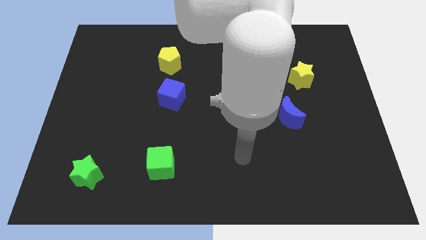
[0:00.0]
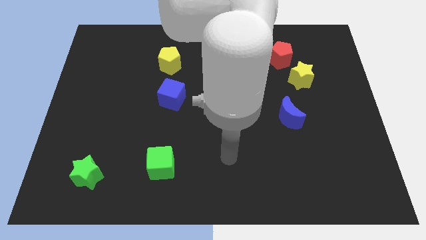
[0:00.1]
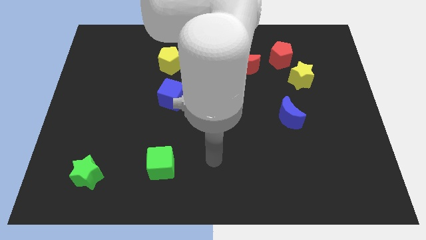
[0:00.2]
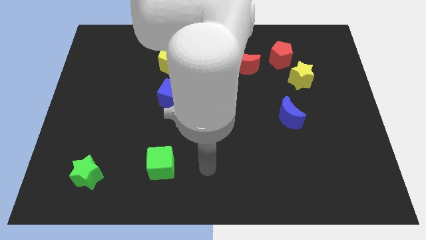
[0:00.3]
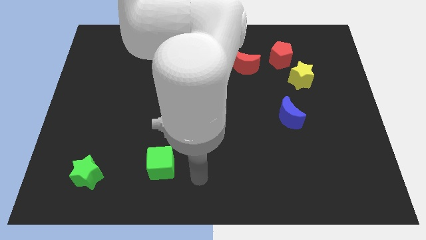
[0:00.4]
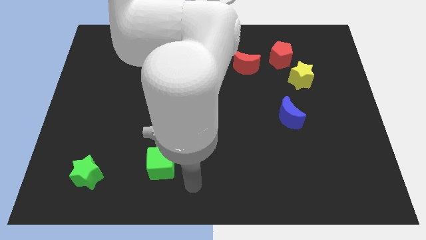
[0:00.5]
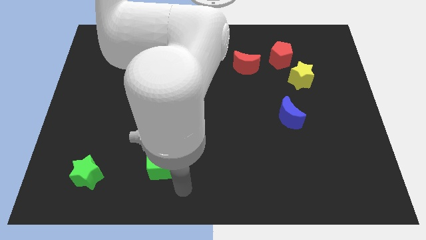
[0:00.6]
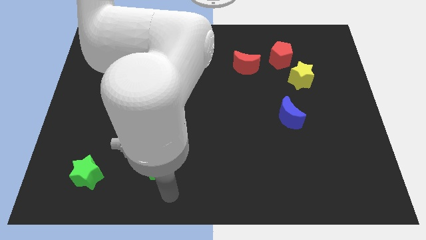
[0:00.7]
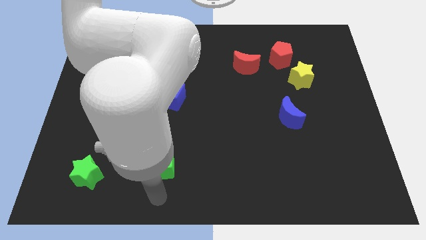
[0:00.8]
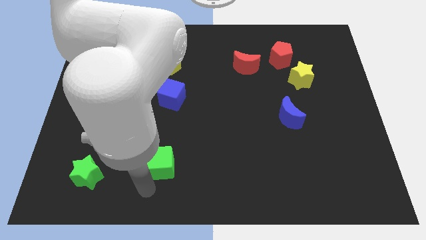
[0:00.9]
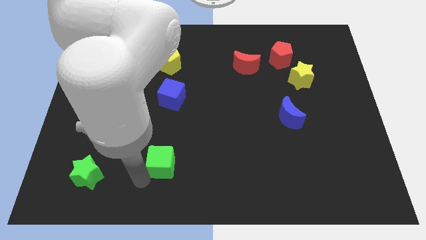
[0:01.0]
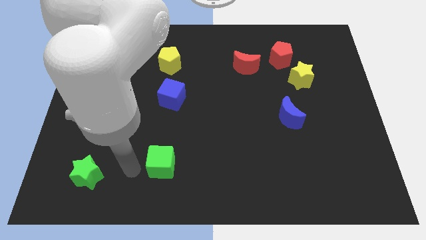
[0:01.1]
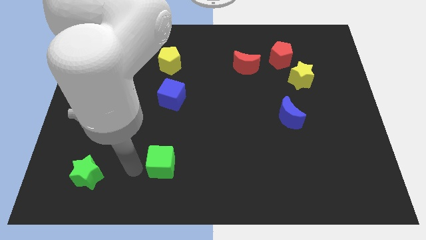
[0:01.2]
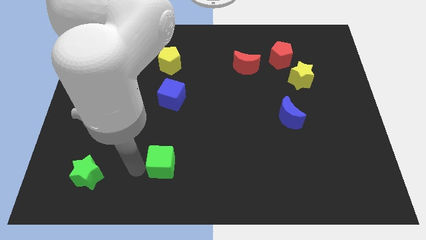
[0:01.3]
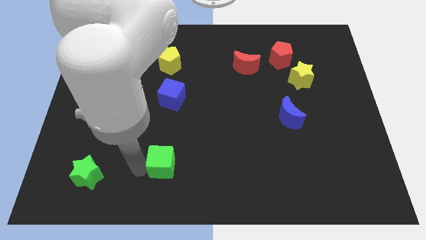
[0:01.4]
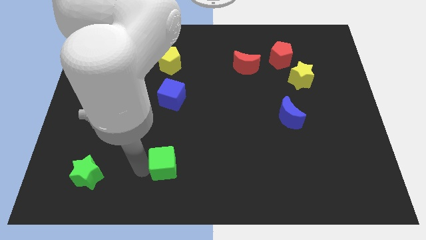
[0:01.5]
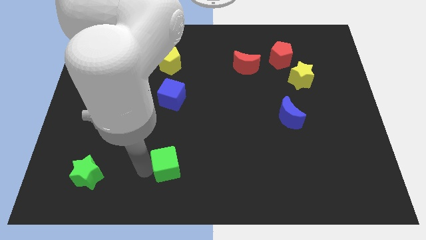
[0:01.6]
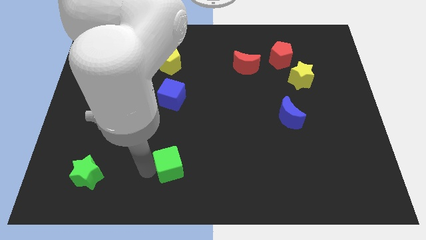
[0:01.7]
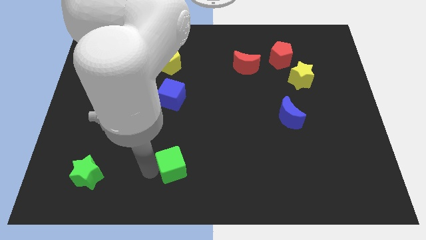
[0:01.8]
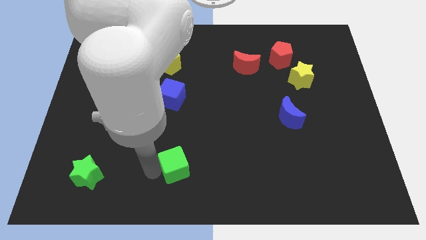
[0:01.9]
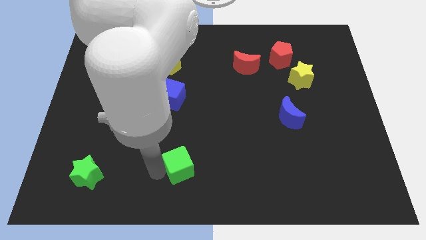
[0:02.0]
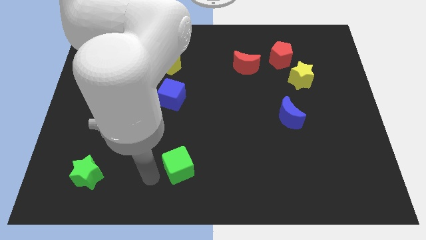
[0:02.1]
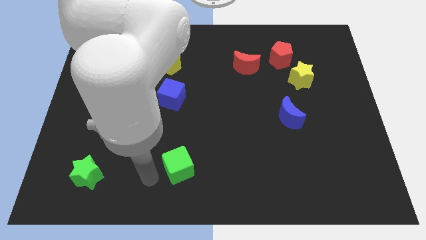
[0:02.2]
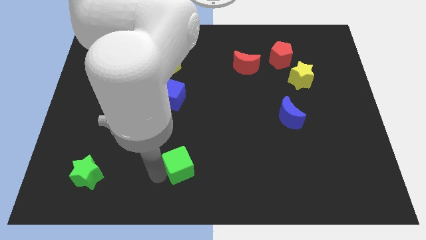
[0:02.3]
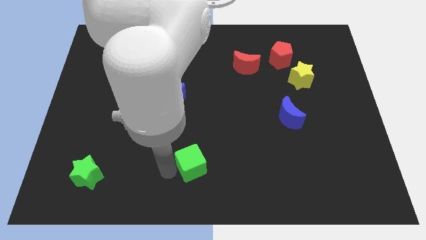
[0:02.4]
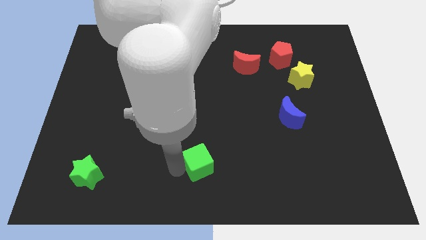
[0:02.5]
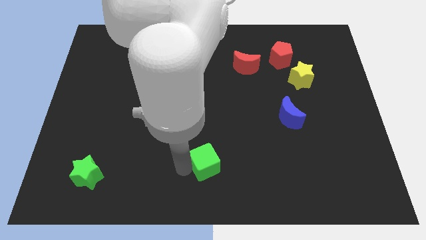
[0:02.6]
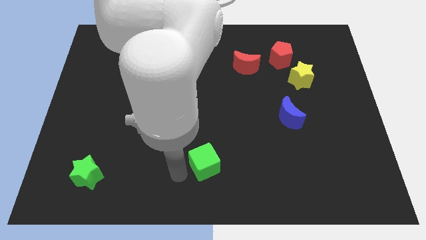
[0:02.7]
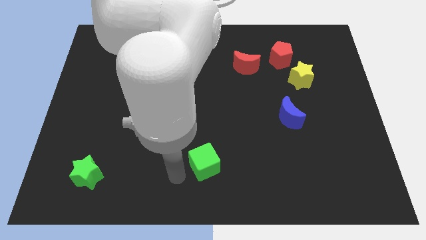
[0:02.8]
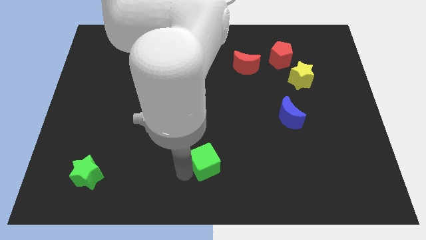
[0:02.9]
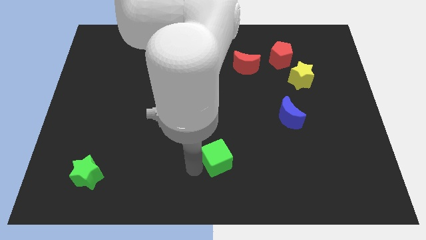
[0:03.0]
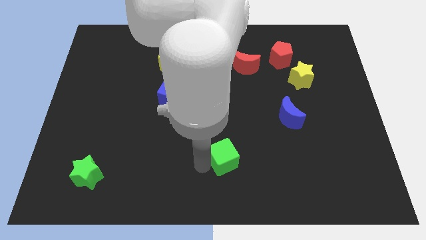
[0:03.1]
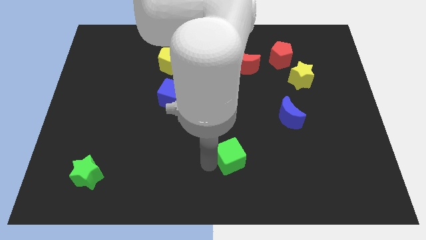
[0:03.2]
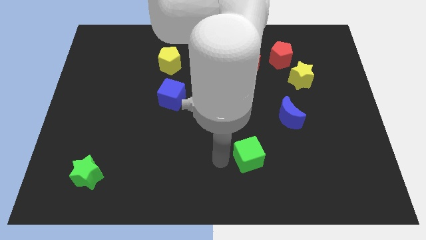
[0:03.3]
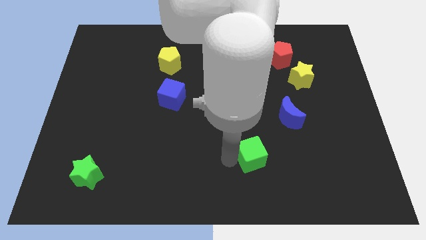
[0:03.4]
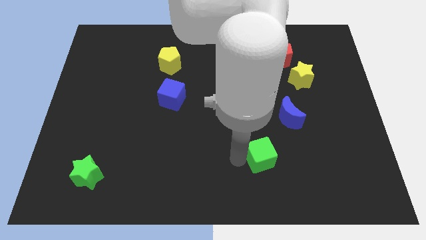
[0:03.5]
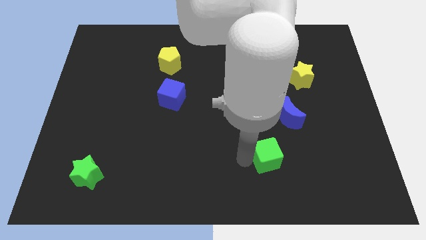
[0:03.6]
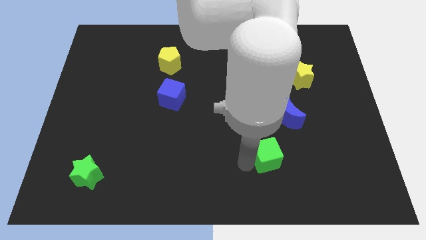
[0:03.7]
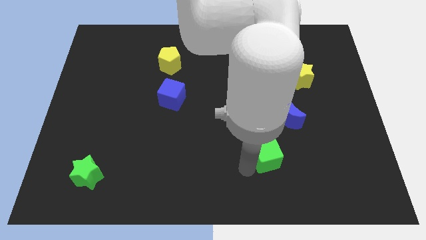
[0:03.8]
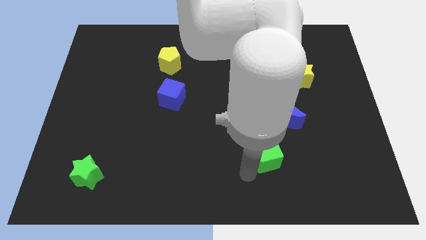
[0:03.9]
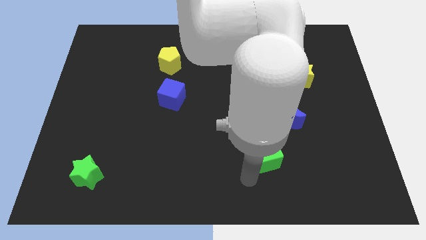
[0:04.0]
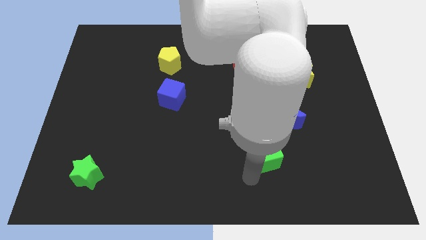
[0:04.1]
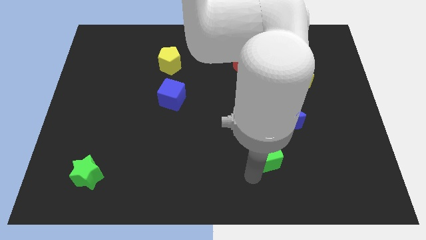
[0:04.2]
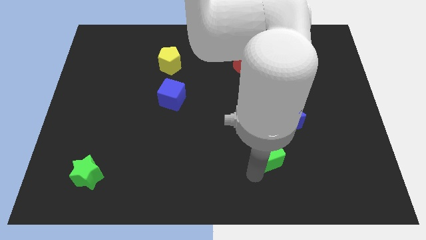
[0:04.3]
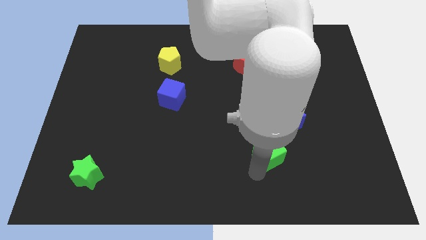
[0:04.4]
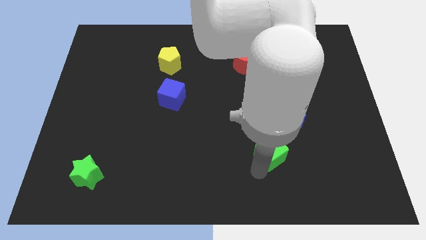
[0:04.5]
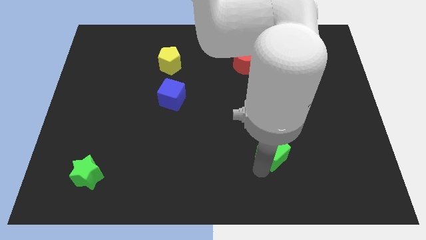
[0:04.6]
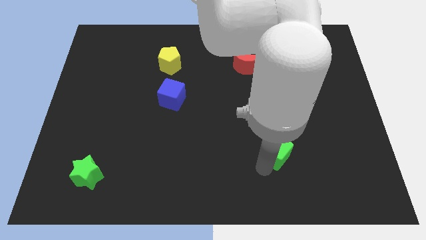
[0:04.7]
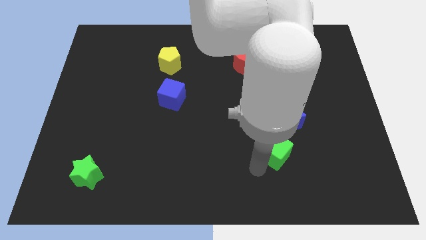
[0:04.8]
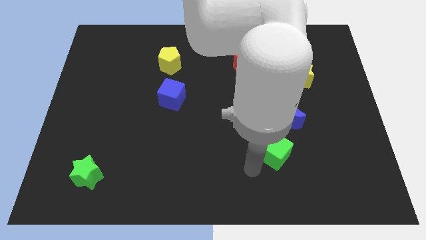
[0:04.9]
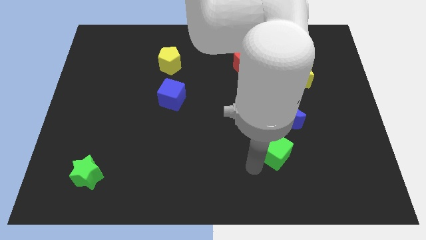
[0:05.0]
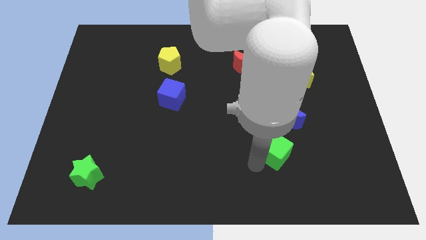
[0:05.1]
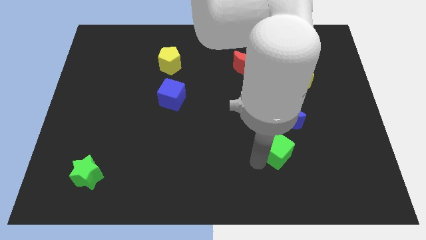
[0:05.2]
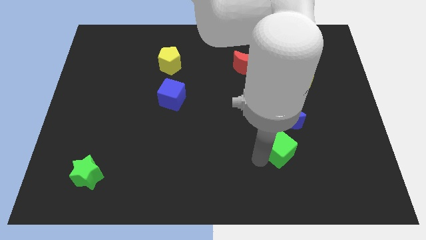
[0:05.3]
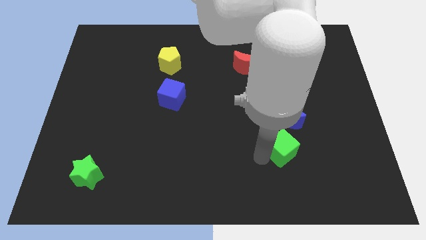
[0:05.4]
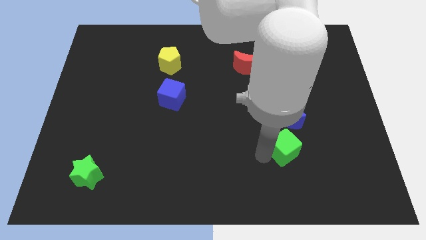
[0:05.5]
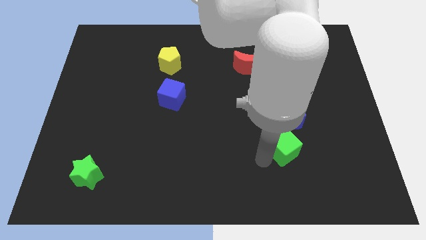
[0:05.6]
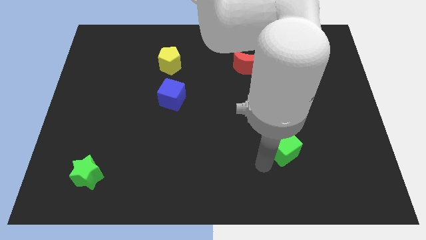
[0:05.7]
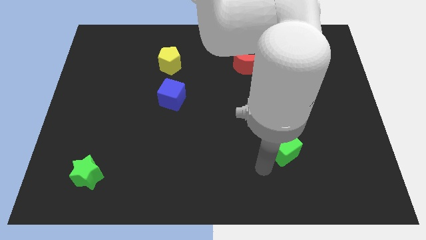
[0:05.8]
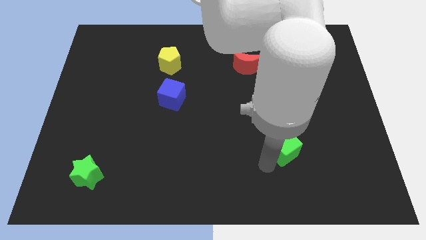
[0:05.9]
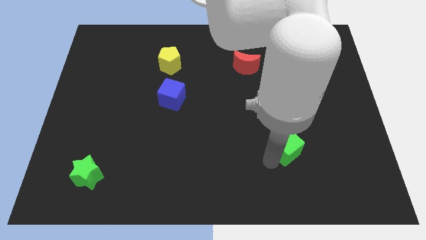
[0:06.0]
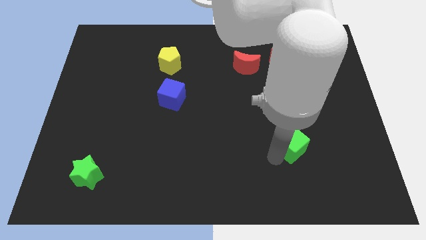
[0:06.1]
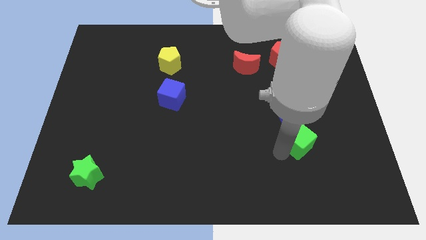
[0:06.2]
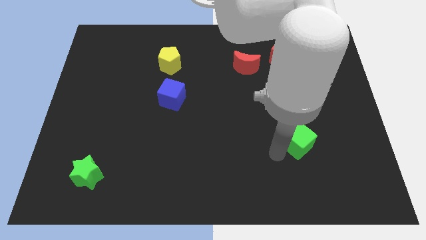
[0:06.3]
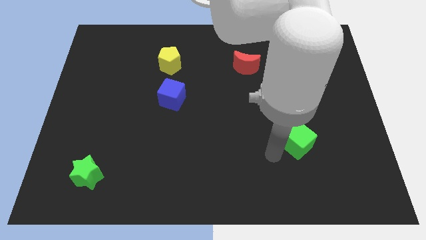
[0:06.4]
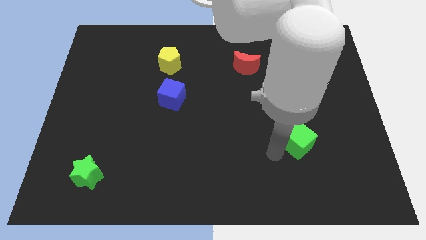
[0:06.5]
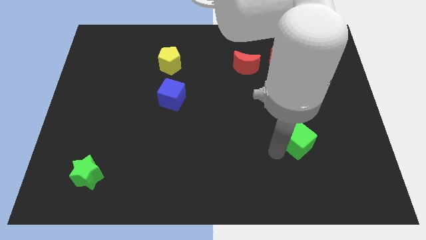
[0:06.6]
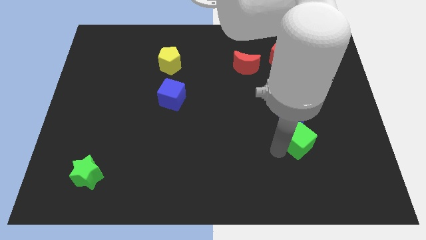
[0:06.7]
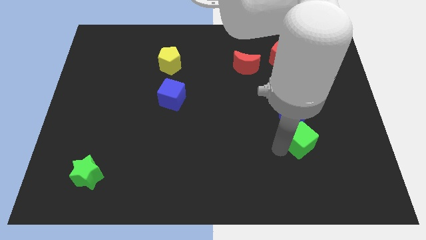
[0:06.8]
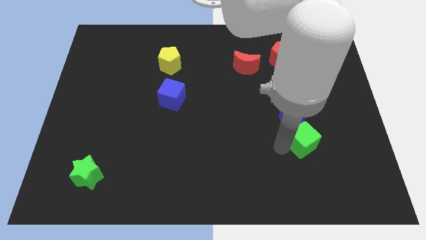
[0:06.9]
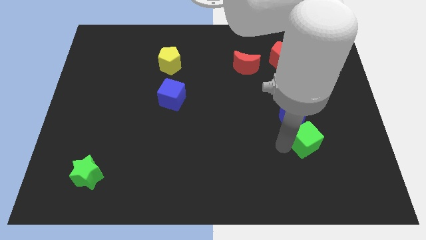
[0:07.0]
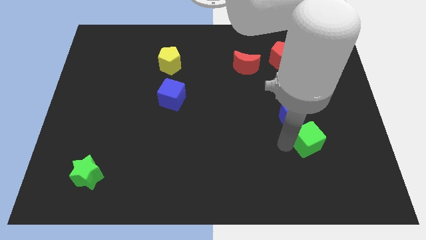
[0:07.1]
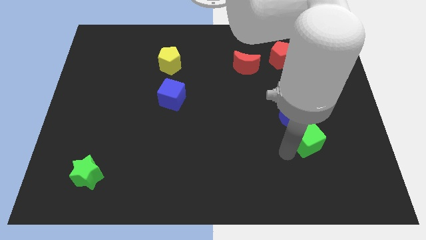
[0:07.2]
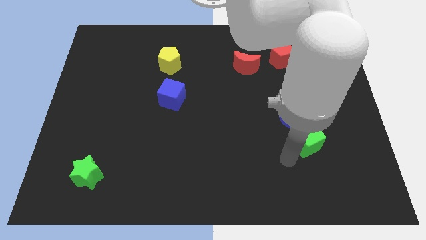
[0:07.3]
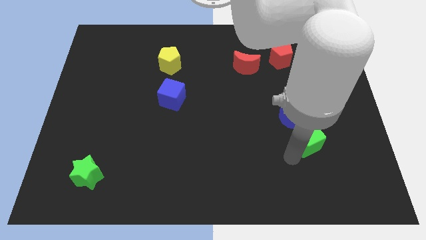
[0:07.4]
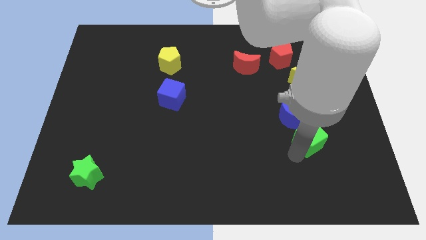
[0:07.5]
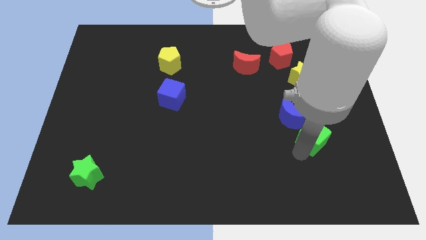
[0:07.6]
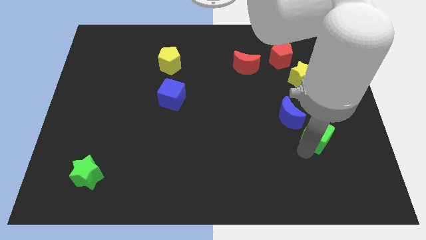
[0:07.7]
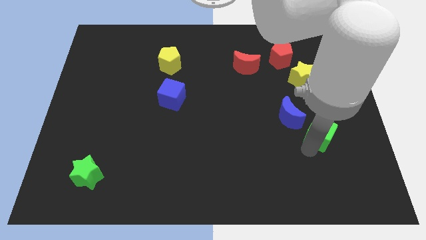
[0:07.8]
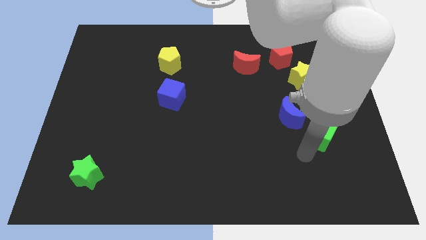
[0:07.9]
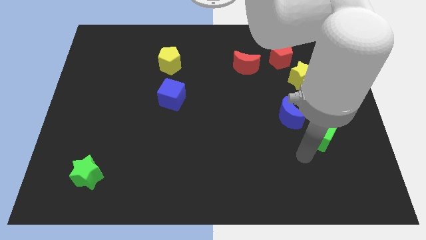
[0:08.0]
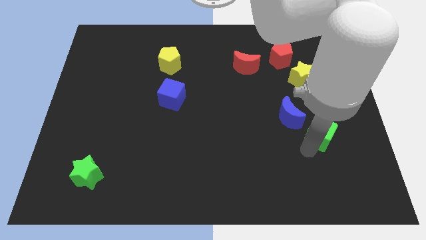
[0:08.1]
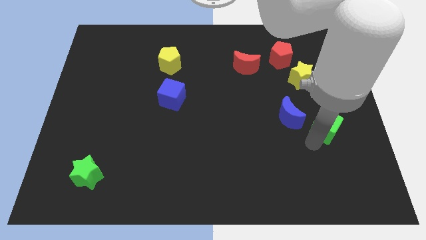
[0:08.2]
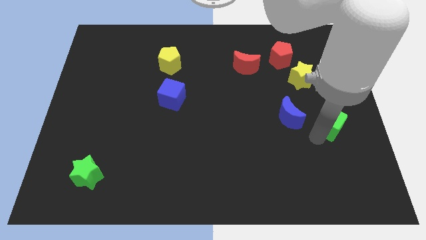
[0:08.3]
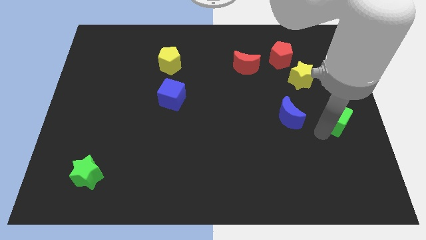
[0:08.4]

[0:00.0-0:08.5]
slide the green cube to the right side of the board
